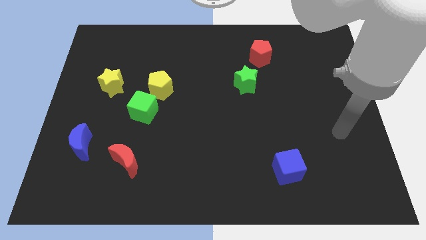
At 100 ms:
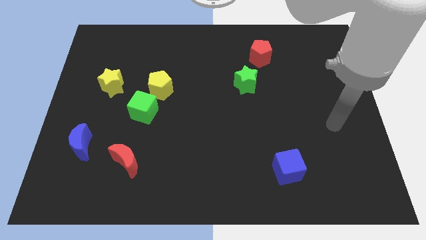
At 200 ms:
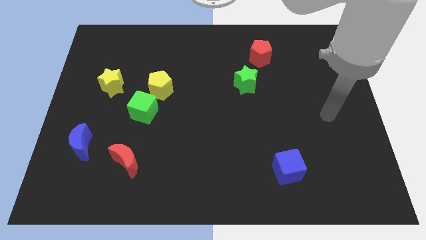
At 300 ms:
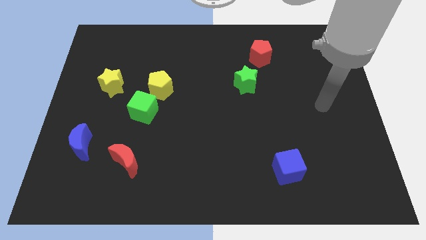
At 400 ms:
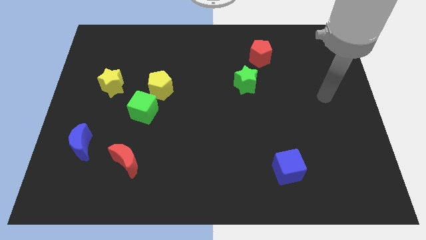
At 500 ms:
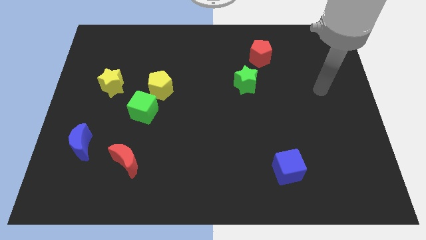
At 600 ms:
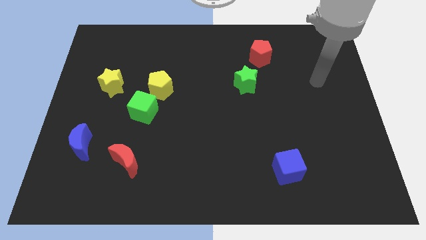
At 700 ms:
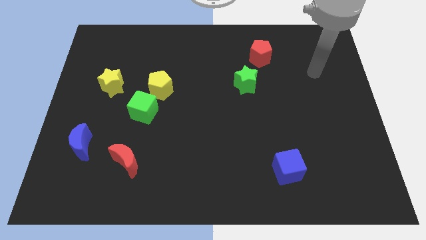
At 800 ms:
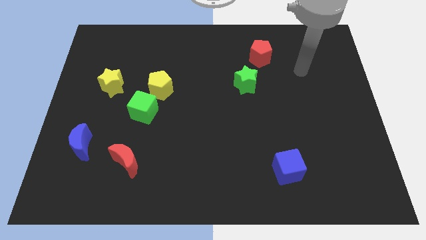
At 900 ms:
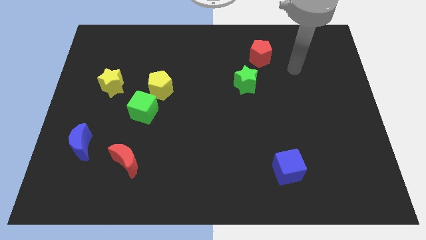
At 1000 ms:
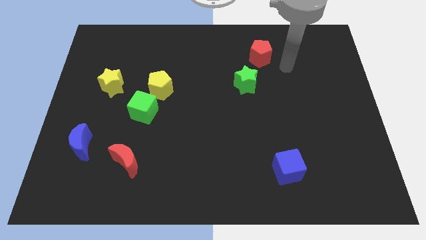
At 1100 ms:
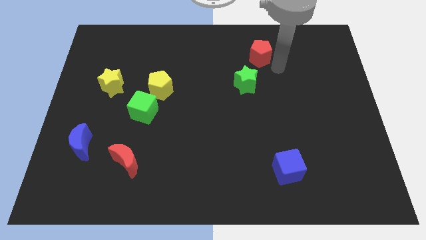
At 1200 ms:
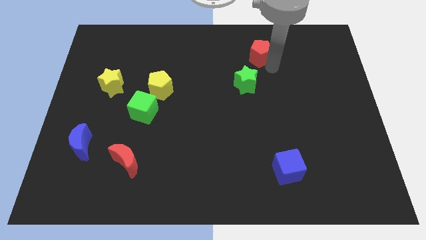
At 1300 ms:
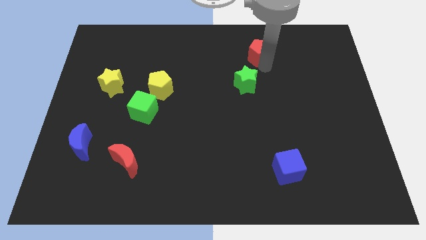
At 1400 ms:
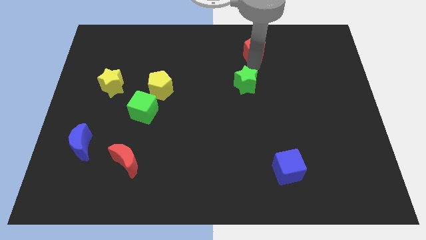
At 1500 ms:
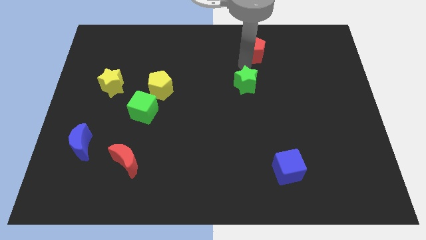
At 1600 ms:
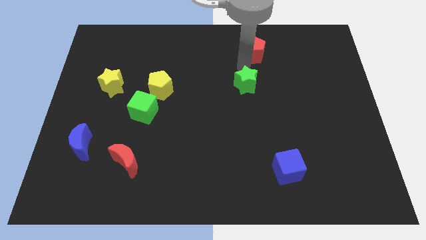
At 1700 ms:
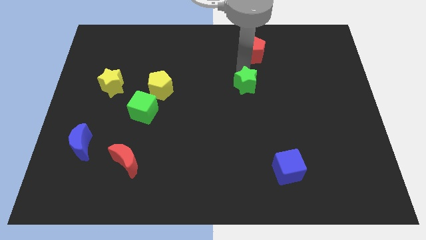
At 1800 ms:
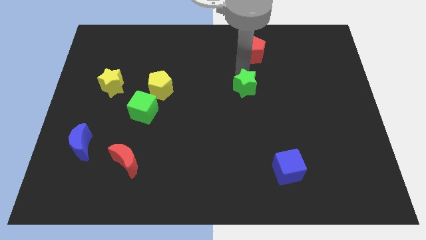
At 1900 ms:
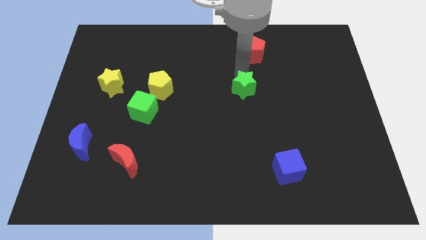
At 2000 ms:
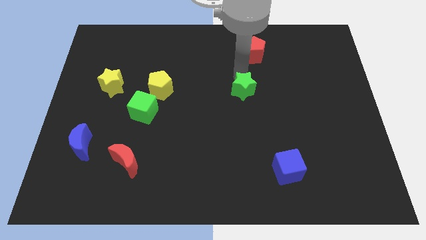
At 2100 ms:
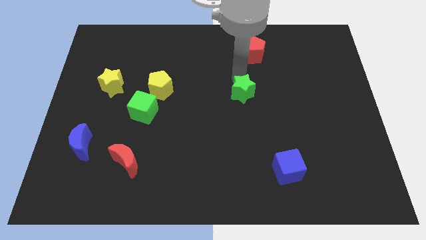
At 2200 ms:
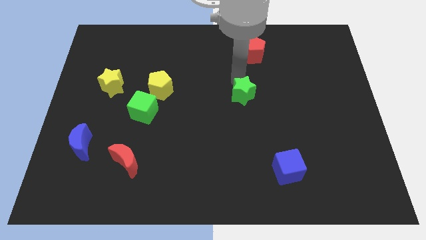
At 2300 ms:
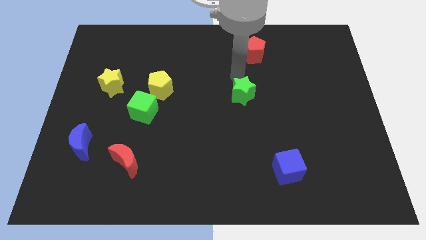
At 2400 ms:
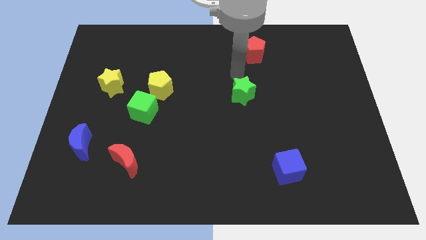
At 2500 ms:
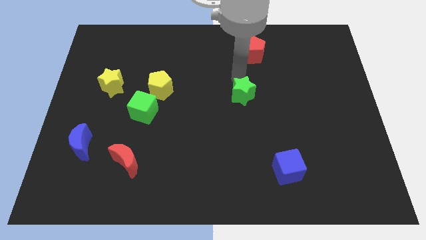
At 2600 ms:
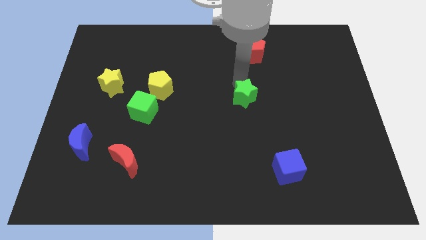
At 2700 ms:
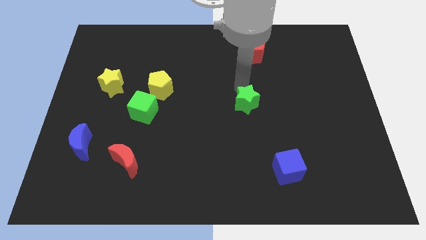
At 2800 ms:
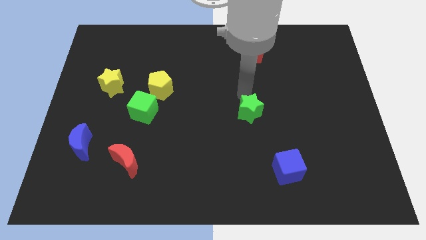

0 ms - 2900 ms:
slide the green star downwards a little

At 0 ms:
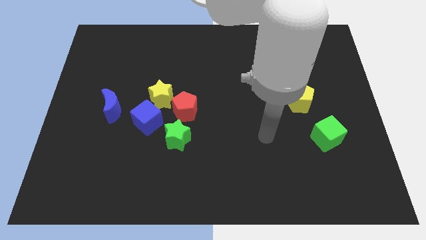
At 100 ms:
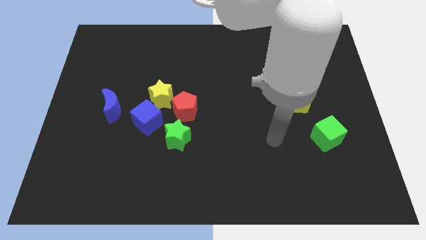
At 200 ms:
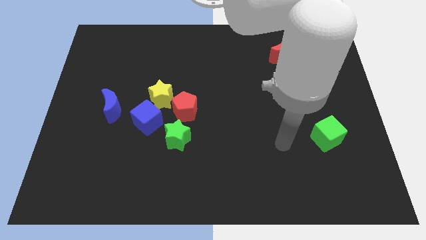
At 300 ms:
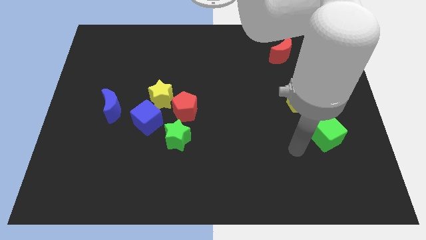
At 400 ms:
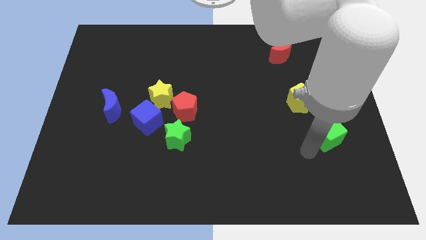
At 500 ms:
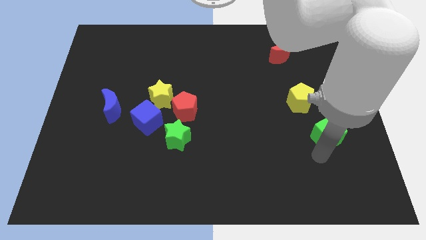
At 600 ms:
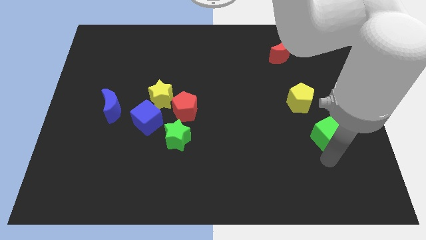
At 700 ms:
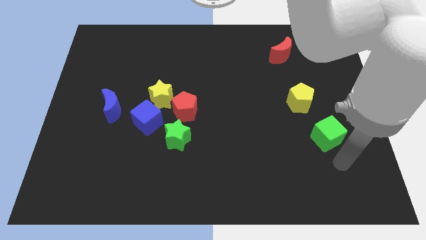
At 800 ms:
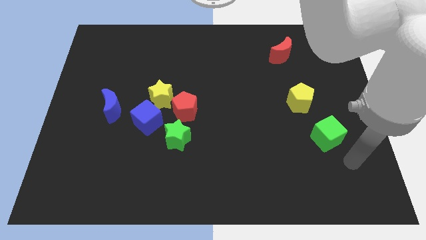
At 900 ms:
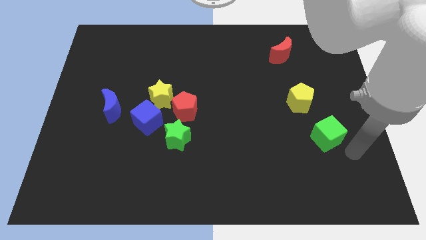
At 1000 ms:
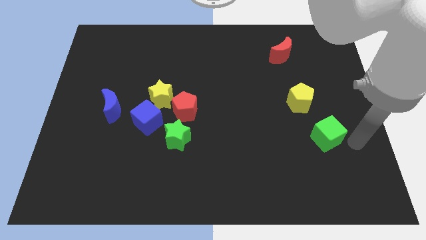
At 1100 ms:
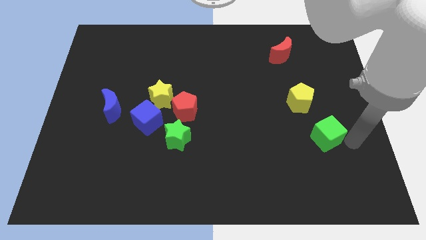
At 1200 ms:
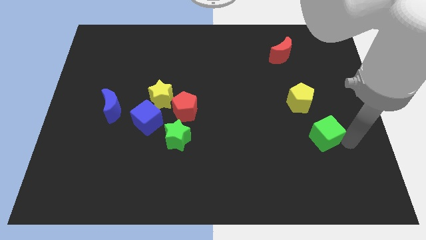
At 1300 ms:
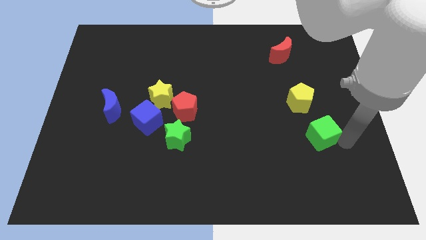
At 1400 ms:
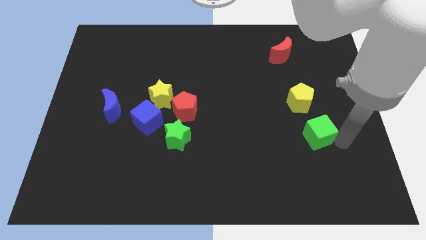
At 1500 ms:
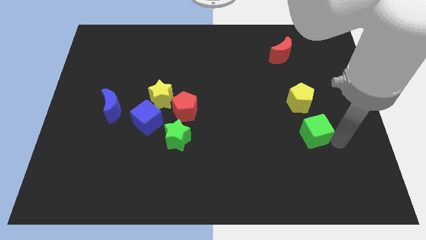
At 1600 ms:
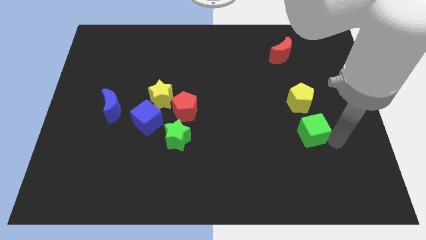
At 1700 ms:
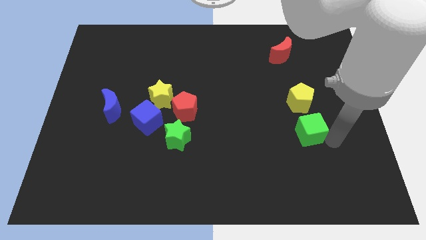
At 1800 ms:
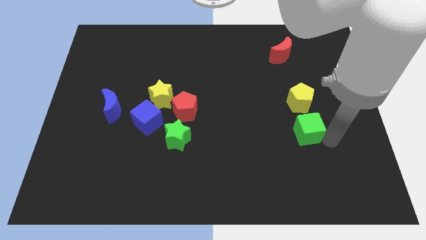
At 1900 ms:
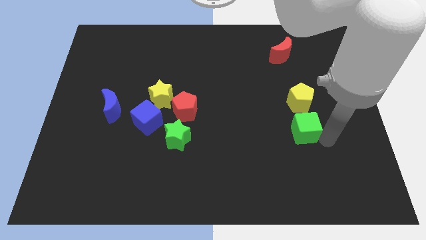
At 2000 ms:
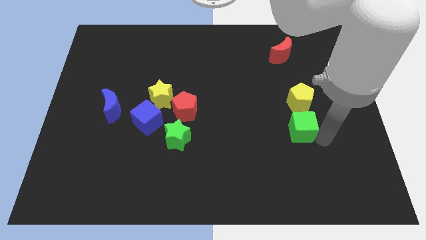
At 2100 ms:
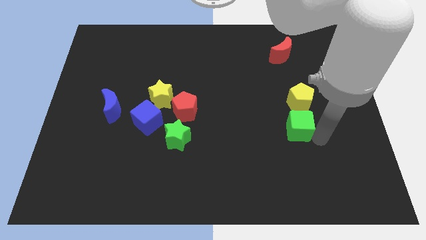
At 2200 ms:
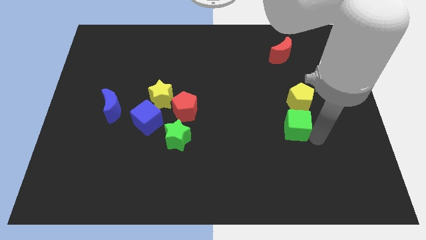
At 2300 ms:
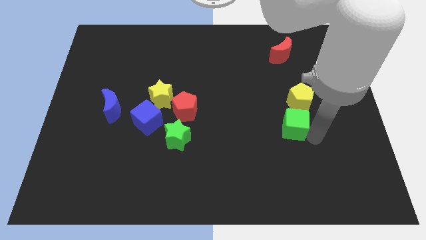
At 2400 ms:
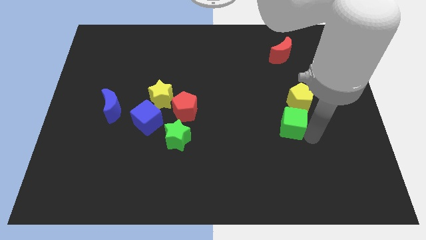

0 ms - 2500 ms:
move the green cube up and then to the left a little

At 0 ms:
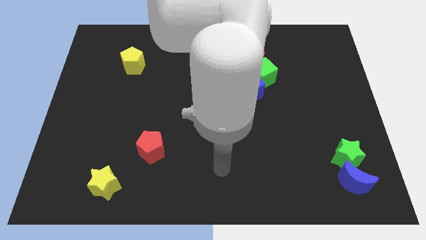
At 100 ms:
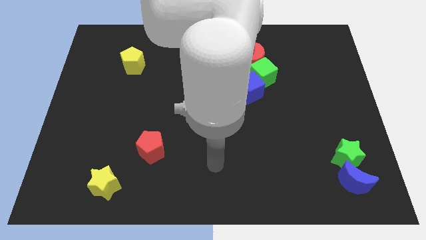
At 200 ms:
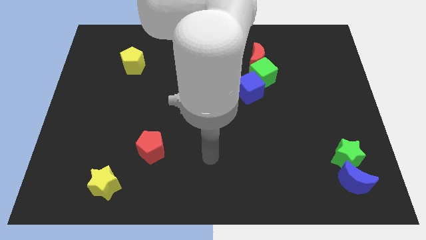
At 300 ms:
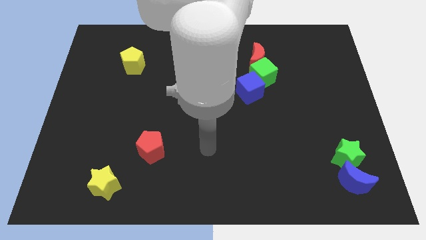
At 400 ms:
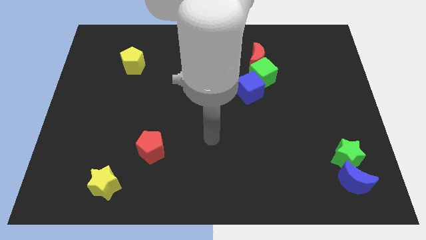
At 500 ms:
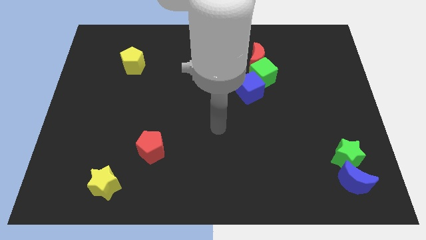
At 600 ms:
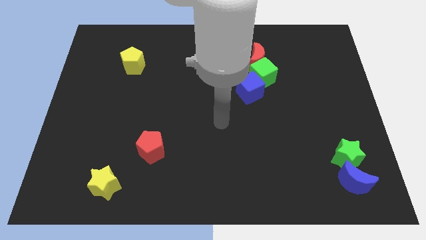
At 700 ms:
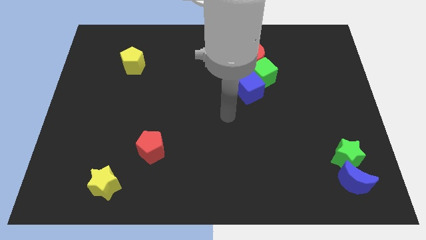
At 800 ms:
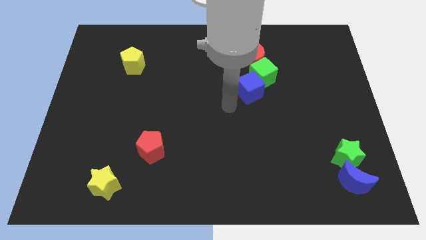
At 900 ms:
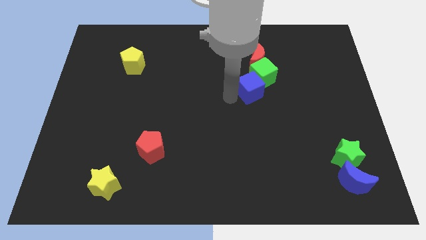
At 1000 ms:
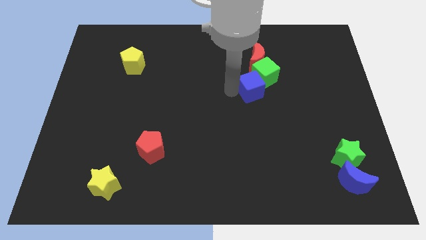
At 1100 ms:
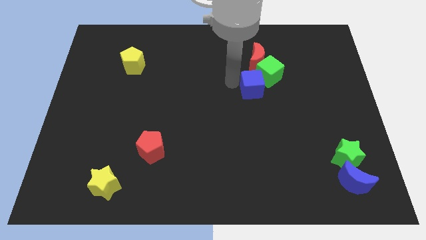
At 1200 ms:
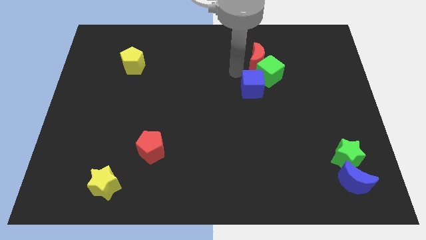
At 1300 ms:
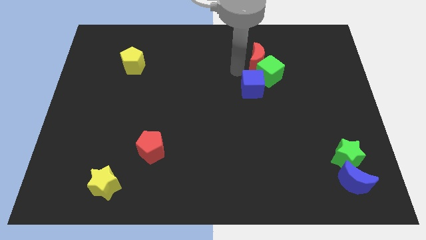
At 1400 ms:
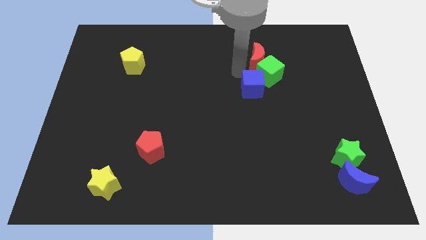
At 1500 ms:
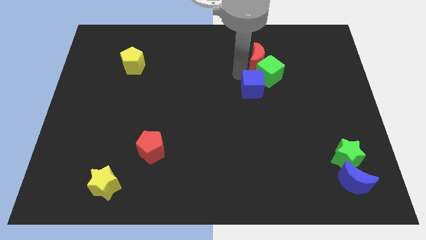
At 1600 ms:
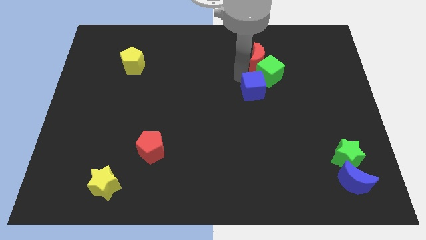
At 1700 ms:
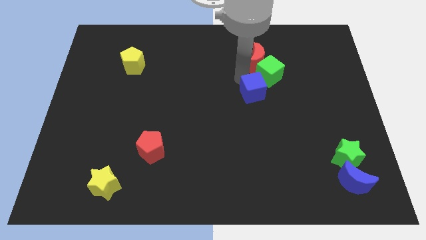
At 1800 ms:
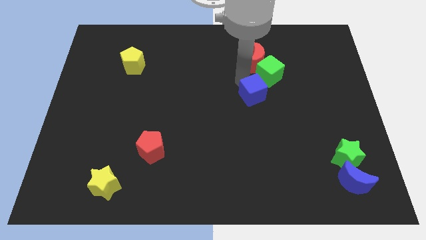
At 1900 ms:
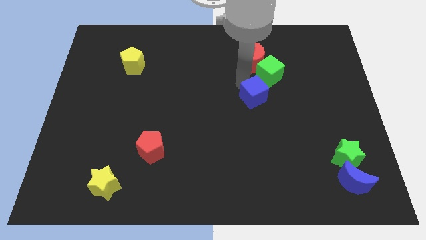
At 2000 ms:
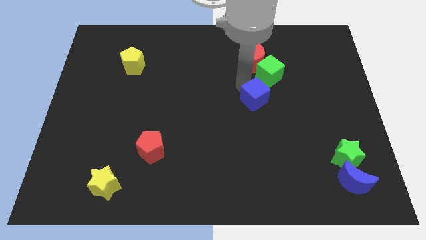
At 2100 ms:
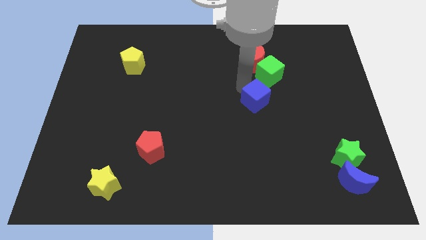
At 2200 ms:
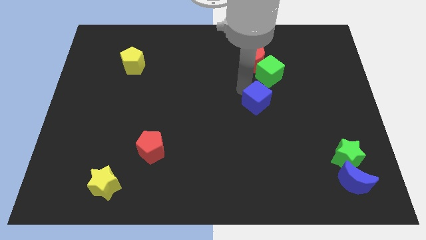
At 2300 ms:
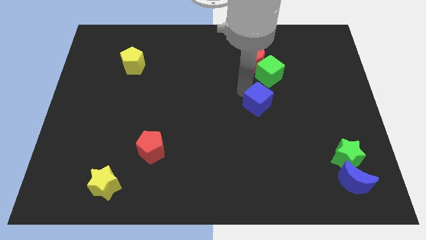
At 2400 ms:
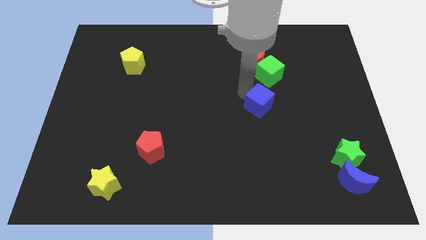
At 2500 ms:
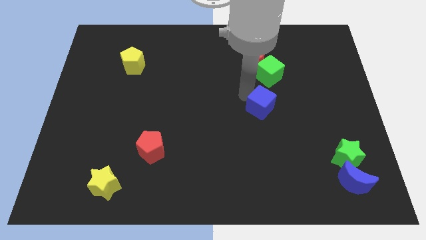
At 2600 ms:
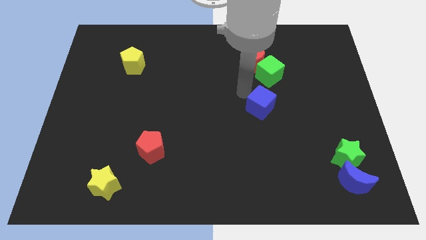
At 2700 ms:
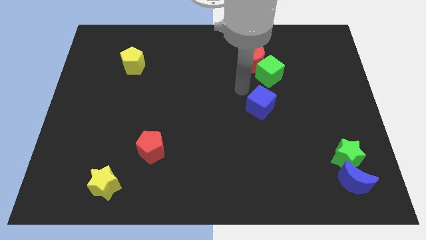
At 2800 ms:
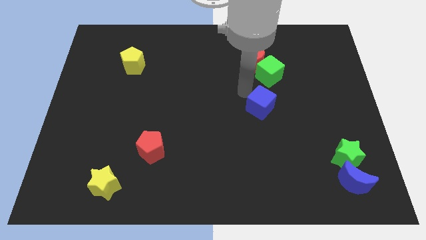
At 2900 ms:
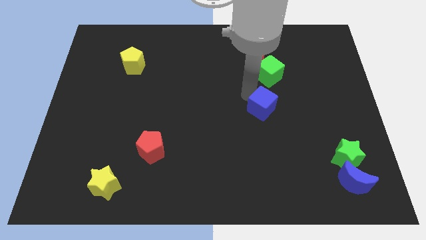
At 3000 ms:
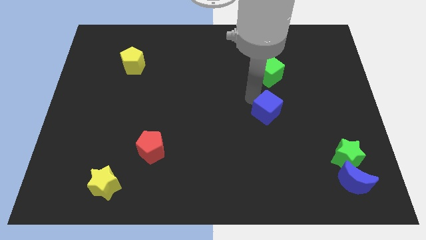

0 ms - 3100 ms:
slightly move the blue cube down and to the right
